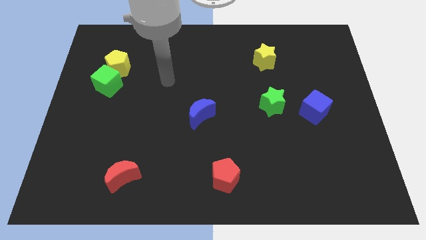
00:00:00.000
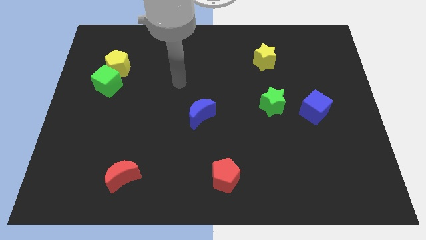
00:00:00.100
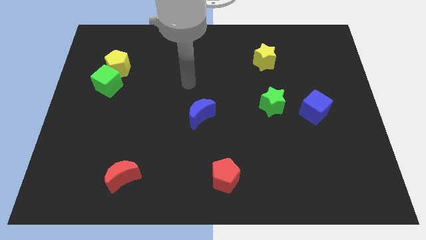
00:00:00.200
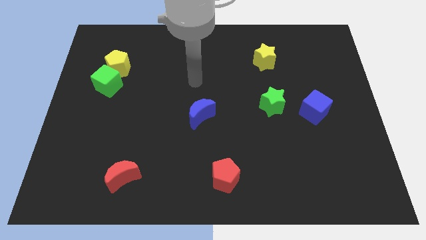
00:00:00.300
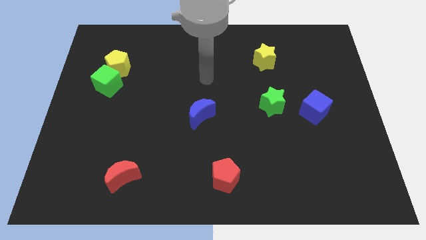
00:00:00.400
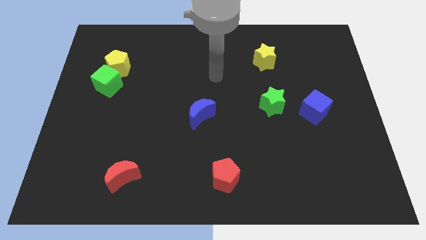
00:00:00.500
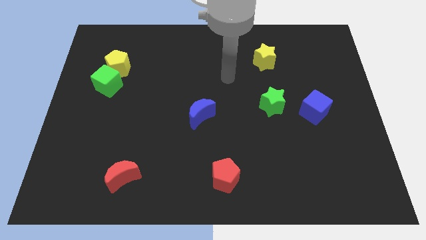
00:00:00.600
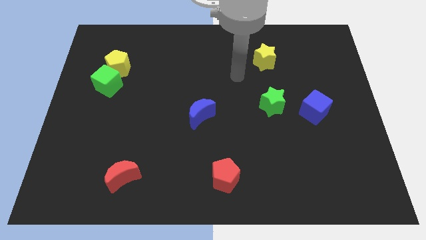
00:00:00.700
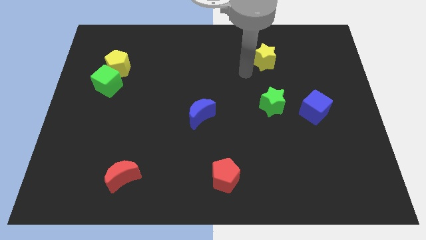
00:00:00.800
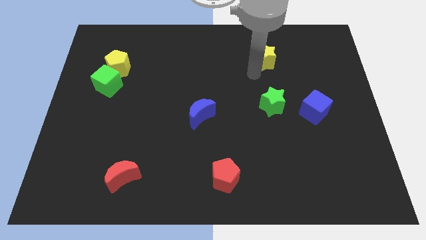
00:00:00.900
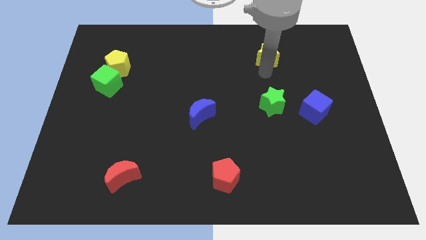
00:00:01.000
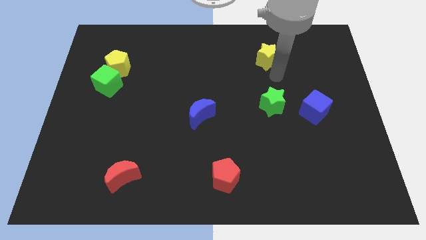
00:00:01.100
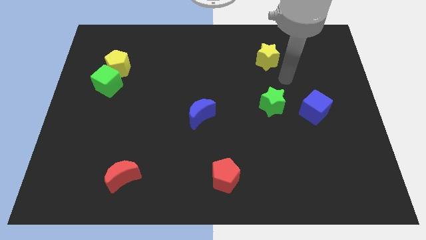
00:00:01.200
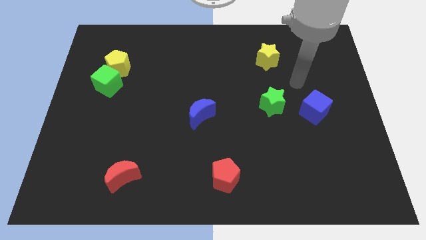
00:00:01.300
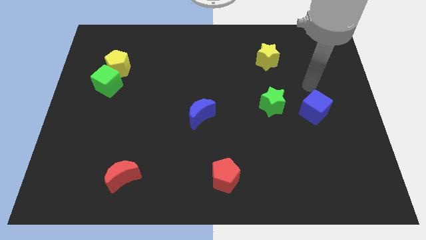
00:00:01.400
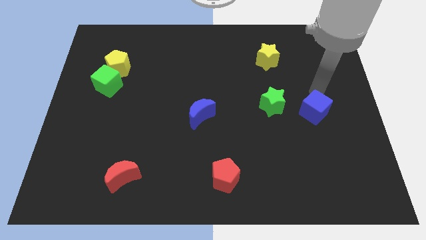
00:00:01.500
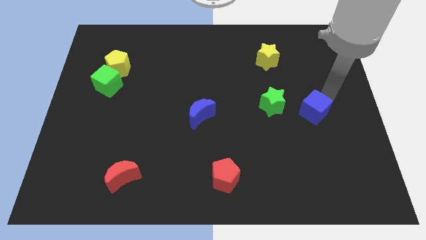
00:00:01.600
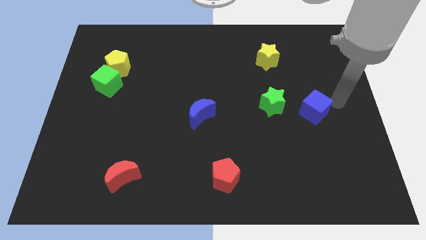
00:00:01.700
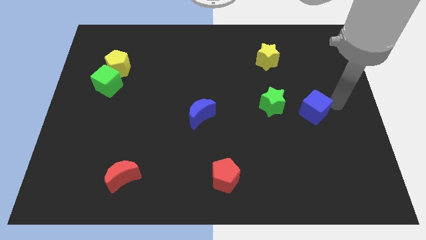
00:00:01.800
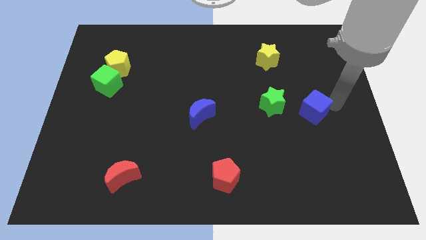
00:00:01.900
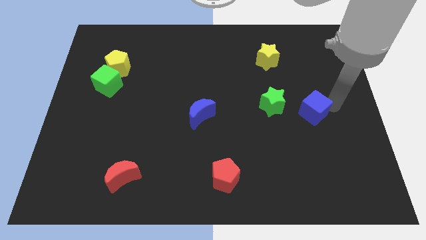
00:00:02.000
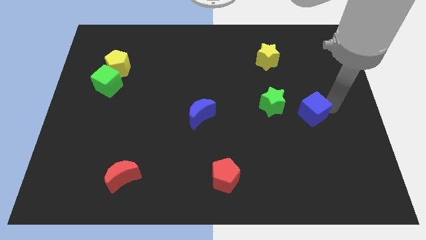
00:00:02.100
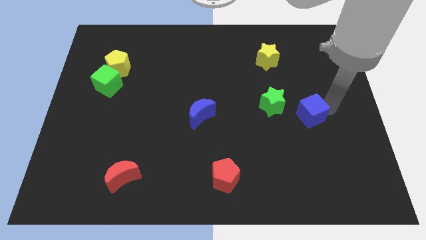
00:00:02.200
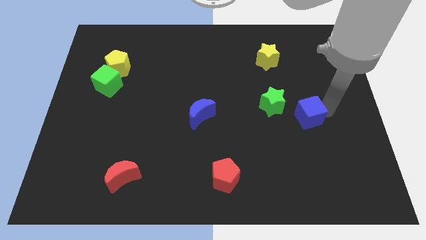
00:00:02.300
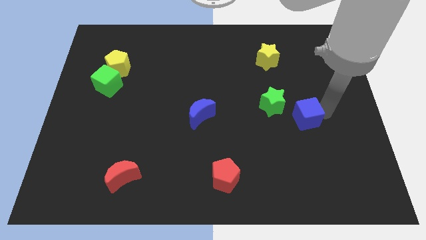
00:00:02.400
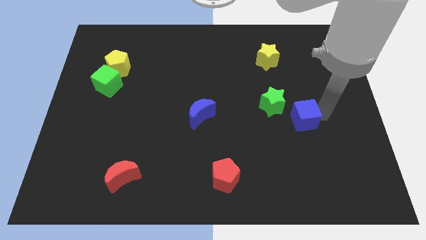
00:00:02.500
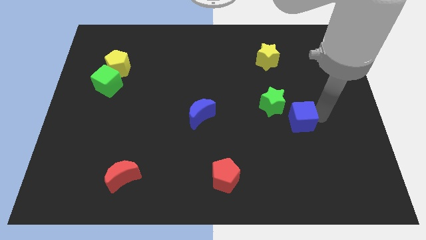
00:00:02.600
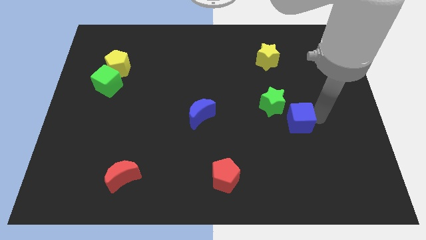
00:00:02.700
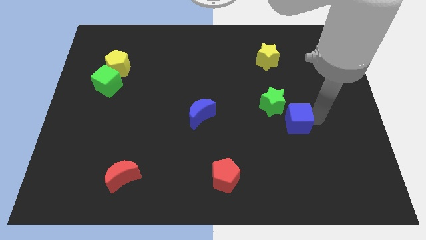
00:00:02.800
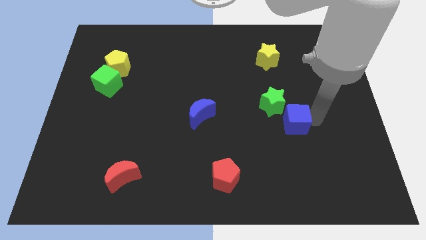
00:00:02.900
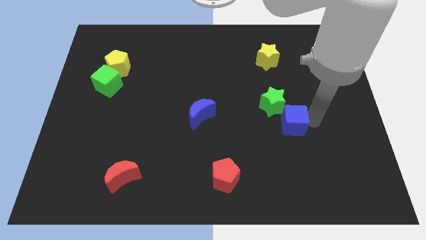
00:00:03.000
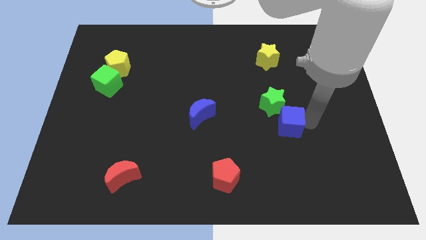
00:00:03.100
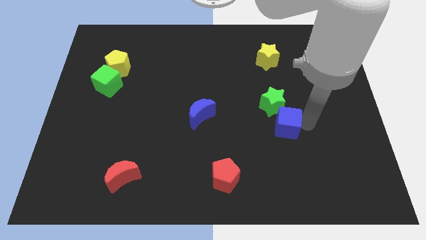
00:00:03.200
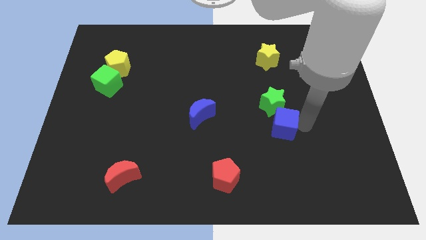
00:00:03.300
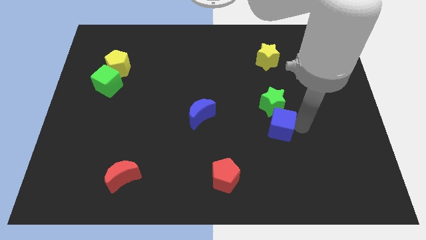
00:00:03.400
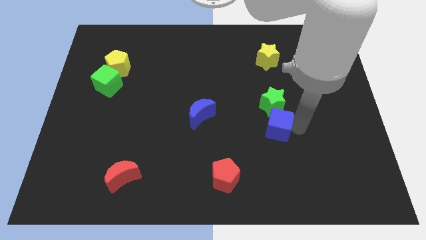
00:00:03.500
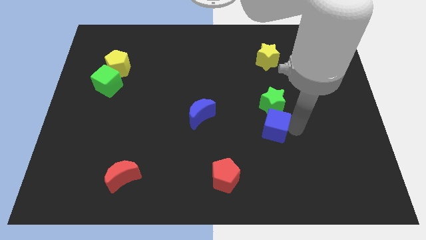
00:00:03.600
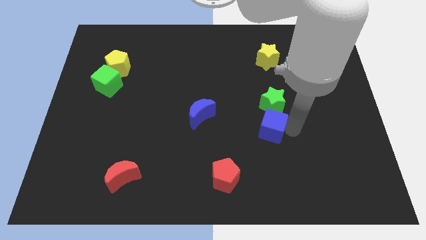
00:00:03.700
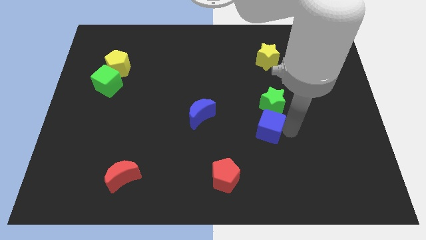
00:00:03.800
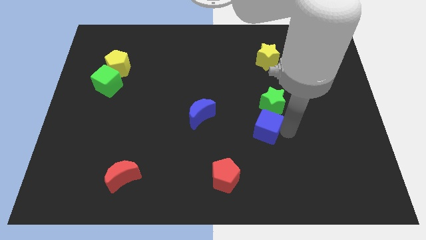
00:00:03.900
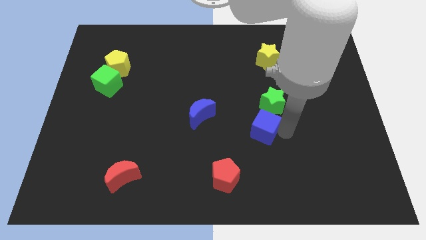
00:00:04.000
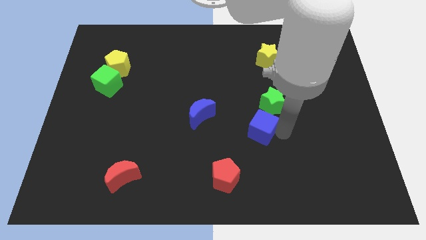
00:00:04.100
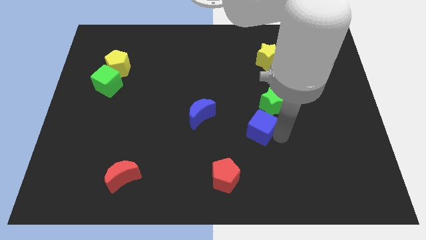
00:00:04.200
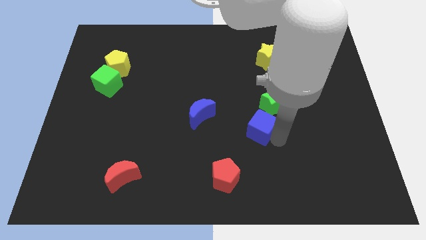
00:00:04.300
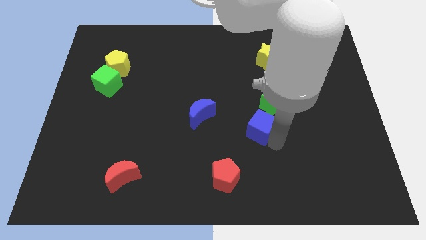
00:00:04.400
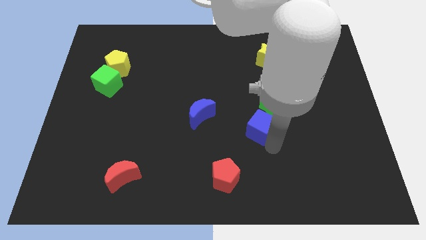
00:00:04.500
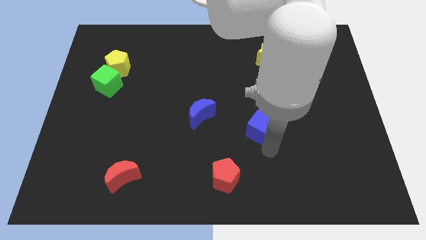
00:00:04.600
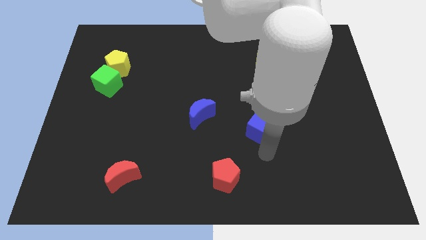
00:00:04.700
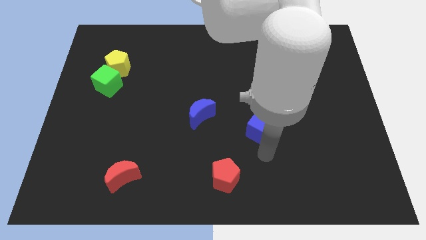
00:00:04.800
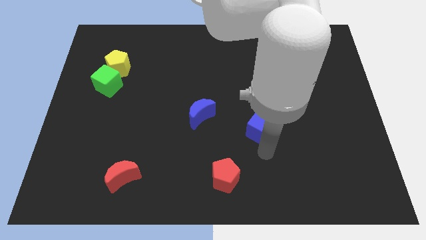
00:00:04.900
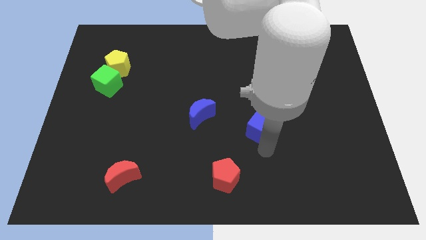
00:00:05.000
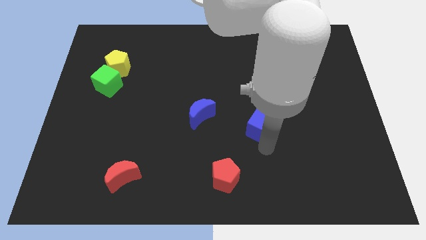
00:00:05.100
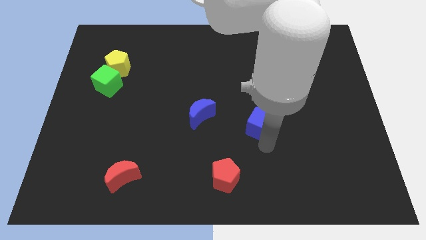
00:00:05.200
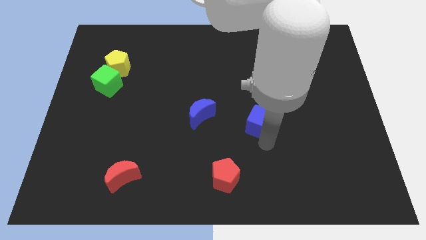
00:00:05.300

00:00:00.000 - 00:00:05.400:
push the blue cube to the middle of the board

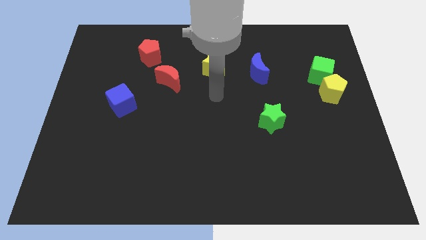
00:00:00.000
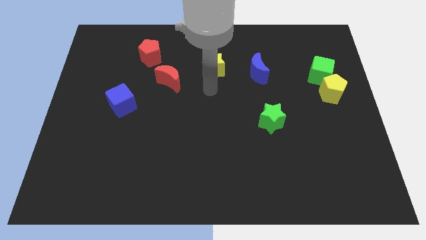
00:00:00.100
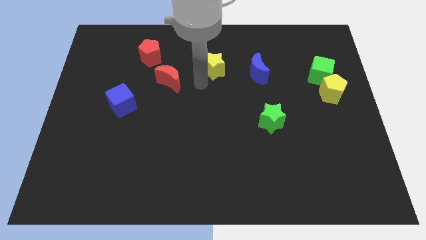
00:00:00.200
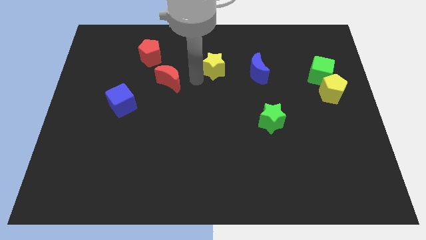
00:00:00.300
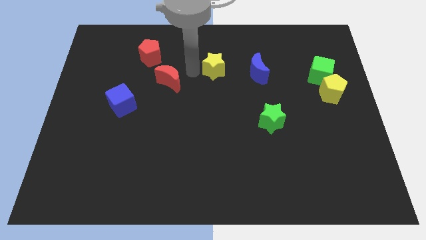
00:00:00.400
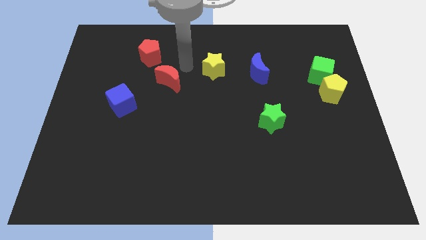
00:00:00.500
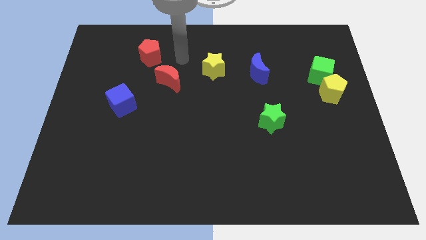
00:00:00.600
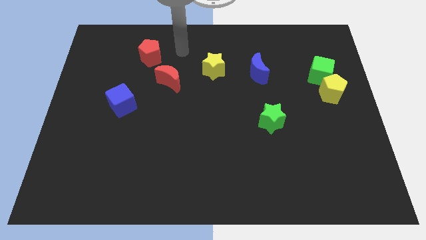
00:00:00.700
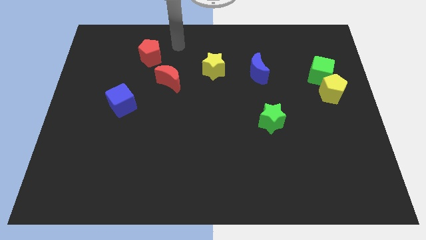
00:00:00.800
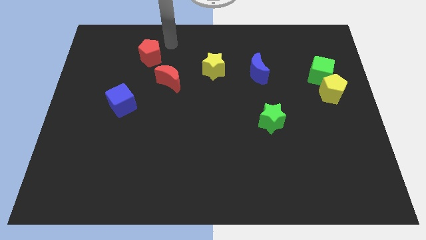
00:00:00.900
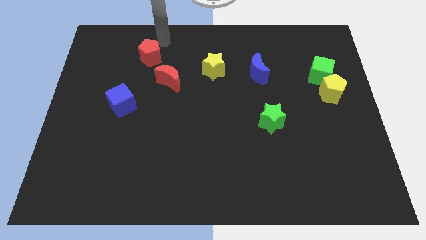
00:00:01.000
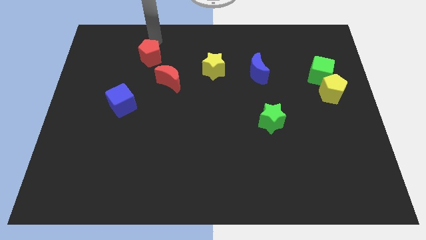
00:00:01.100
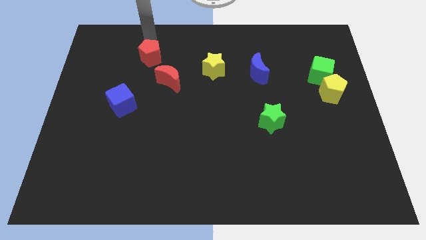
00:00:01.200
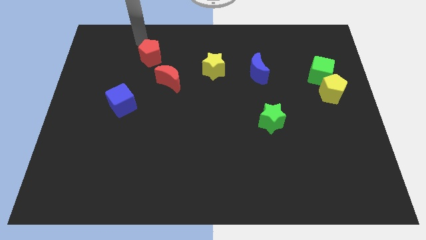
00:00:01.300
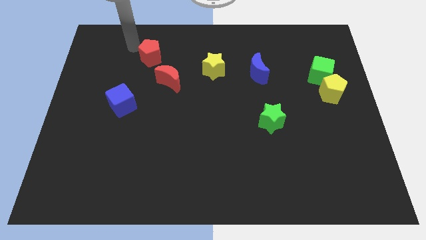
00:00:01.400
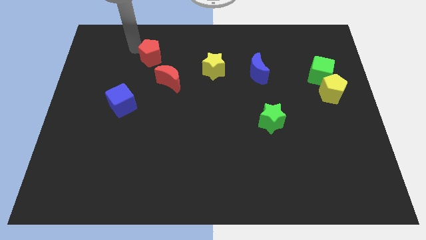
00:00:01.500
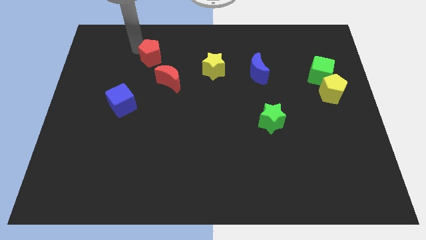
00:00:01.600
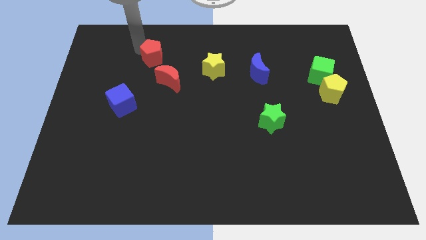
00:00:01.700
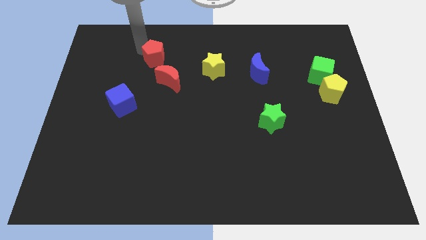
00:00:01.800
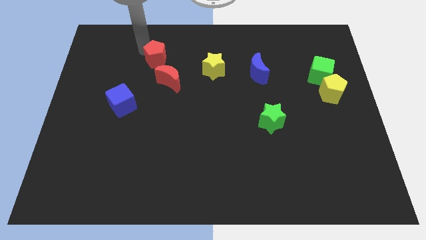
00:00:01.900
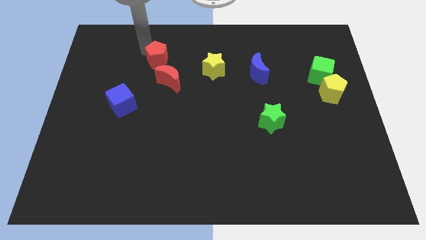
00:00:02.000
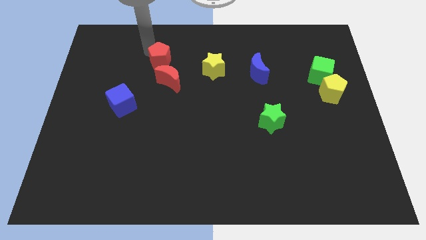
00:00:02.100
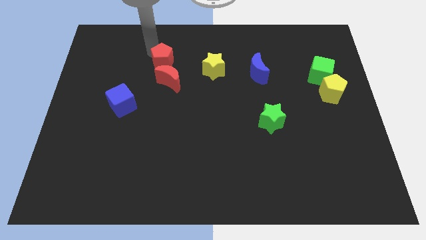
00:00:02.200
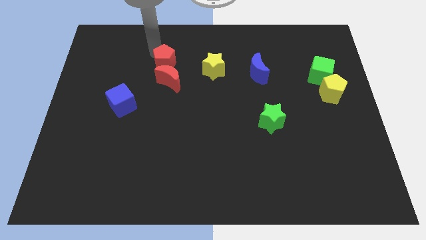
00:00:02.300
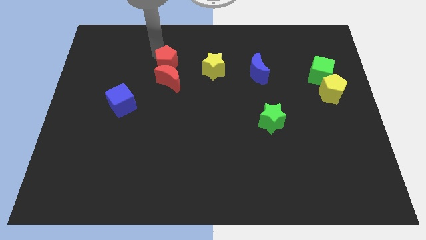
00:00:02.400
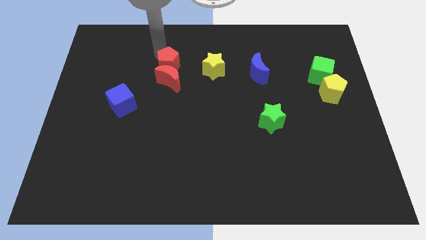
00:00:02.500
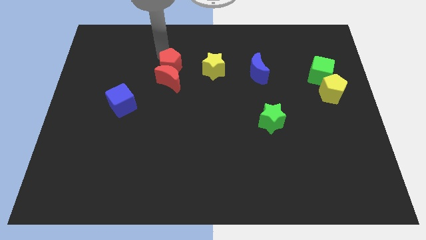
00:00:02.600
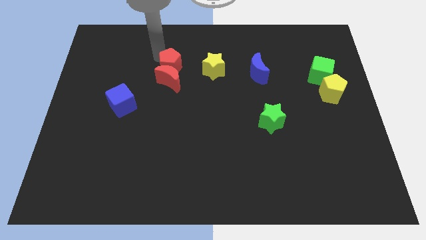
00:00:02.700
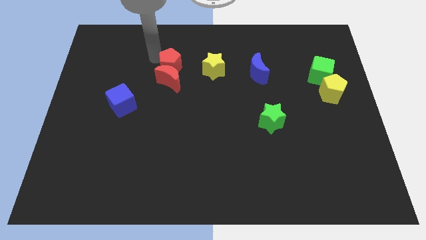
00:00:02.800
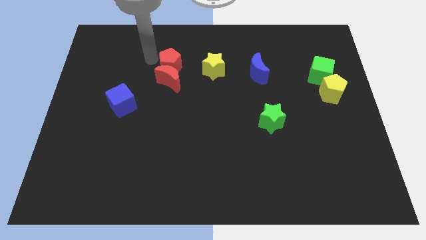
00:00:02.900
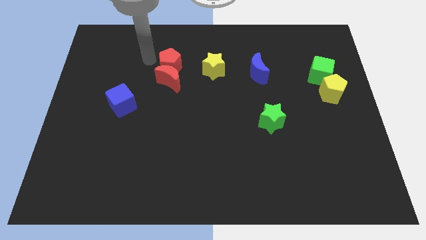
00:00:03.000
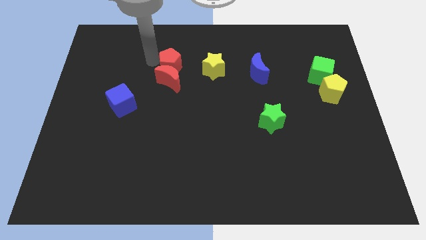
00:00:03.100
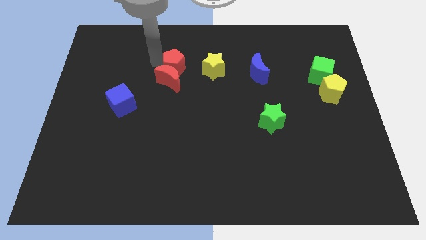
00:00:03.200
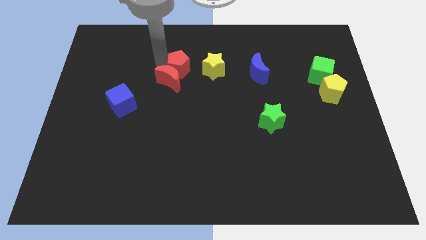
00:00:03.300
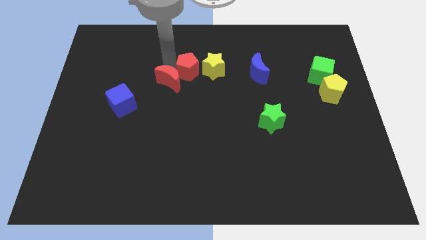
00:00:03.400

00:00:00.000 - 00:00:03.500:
move the red pentagon to the middle
